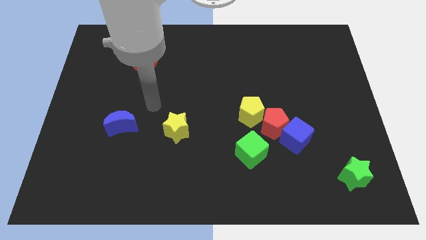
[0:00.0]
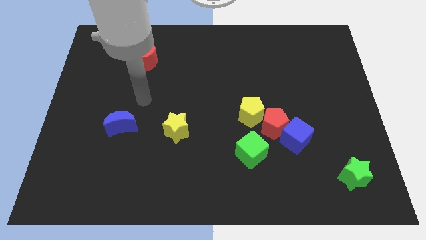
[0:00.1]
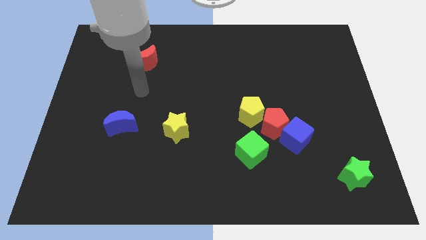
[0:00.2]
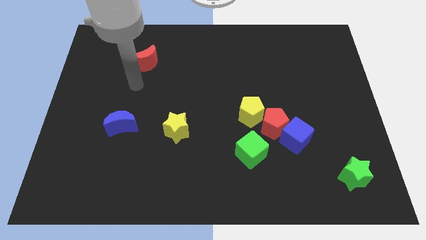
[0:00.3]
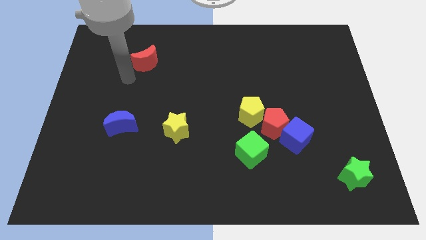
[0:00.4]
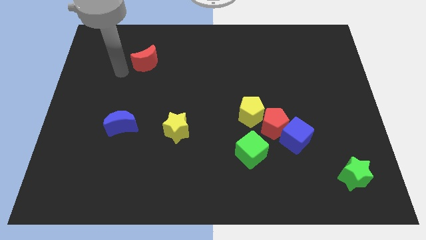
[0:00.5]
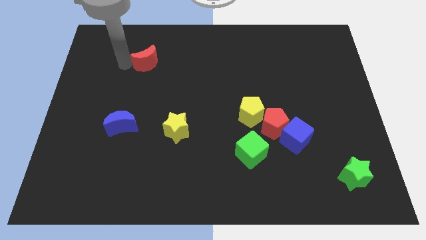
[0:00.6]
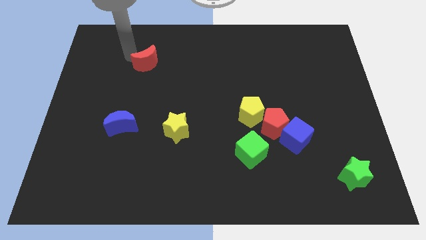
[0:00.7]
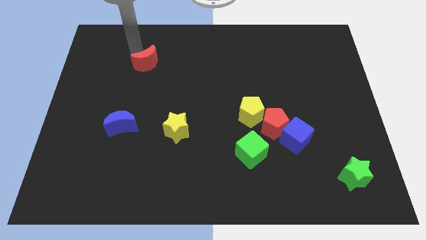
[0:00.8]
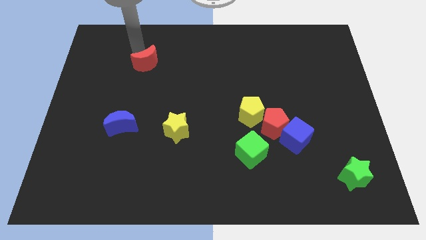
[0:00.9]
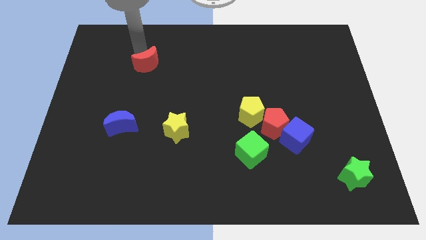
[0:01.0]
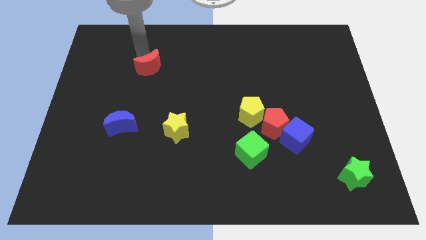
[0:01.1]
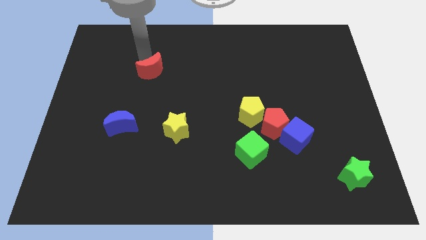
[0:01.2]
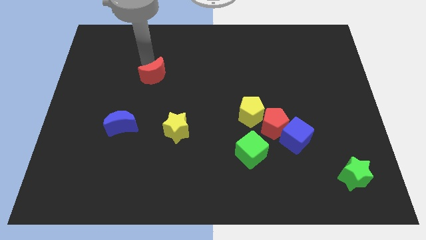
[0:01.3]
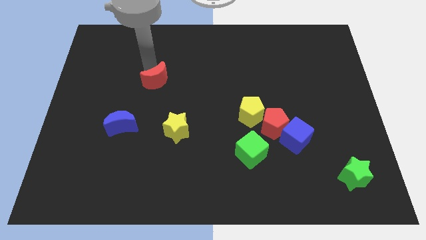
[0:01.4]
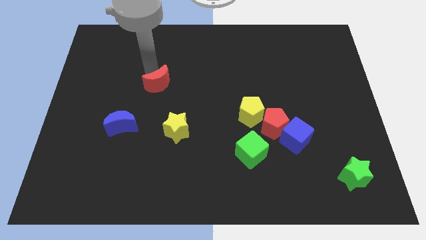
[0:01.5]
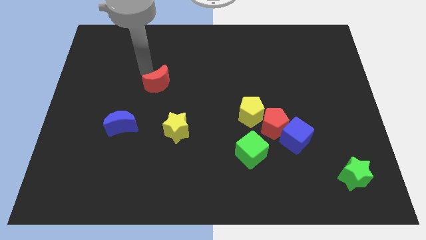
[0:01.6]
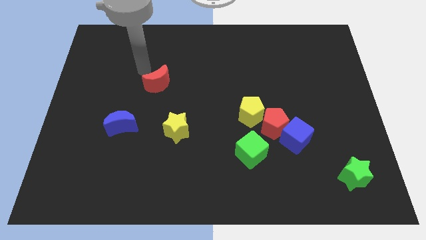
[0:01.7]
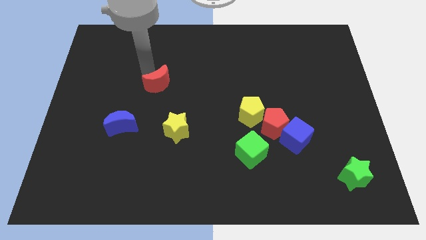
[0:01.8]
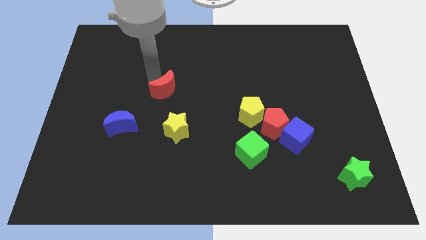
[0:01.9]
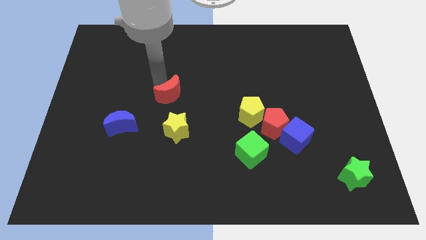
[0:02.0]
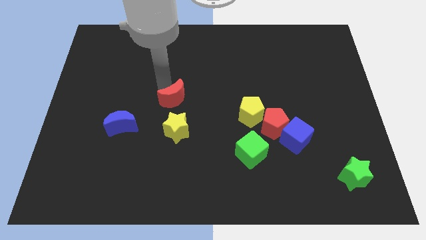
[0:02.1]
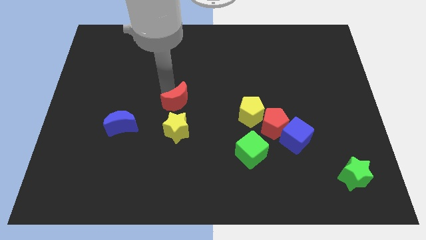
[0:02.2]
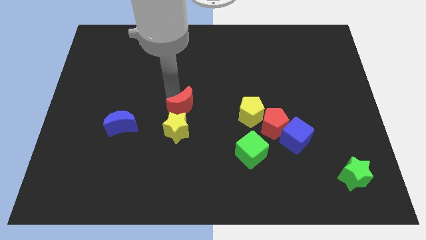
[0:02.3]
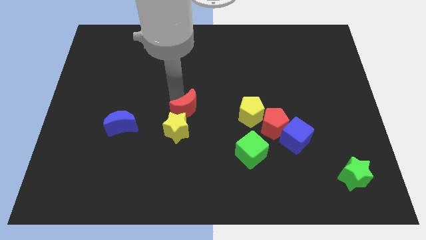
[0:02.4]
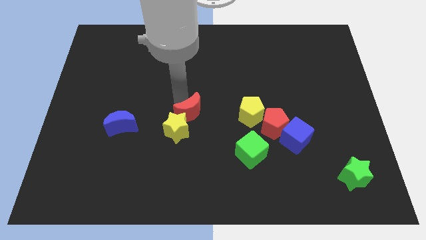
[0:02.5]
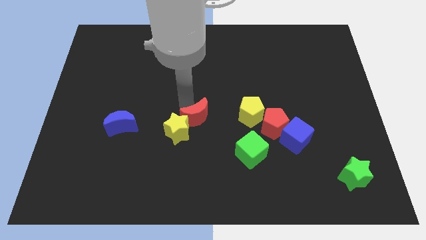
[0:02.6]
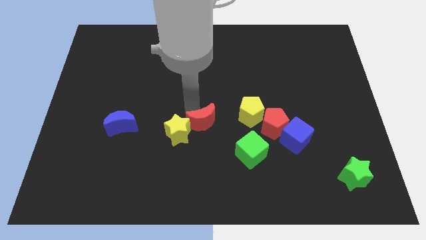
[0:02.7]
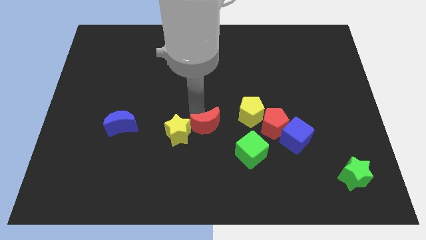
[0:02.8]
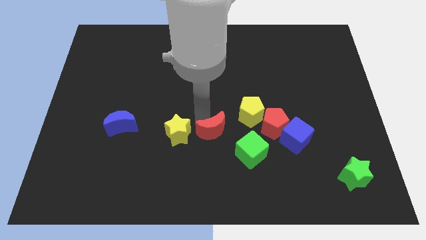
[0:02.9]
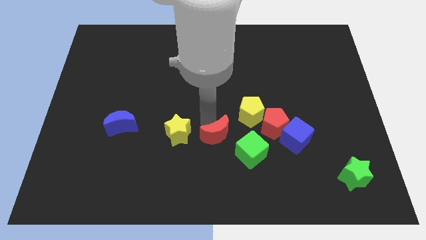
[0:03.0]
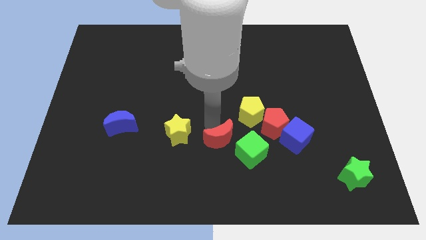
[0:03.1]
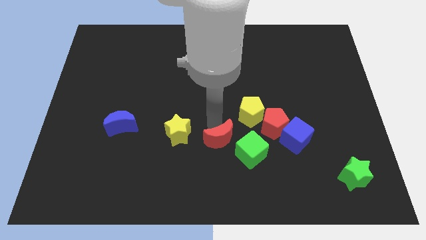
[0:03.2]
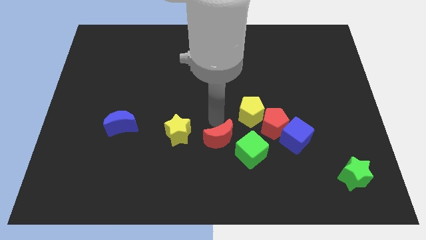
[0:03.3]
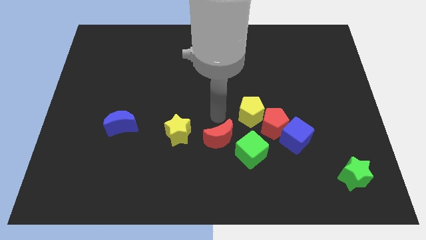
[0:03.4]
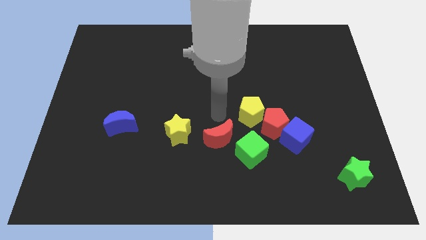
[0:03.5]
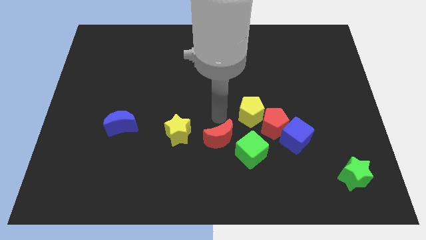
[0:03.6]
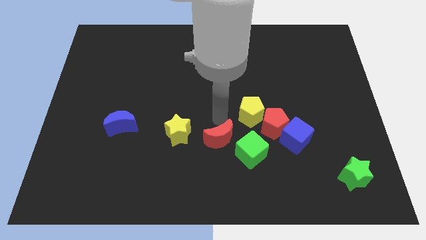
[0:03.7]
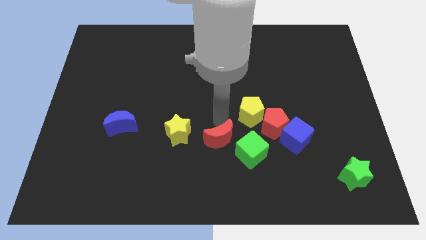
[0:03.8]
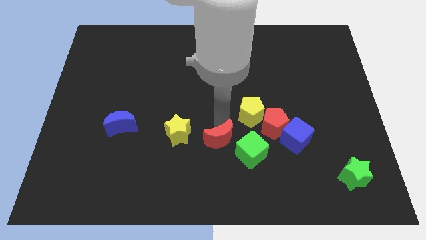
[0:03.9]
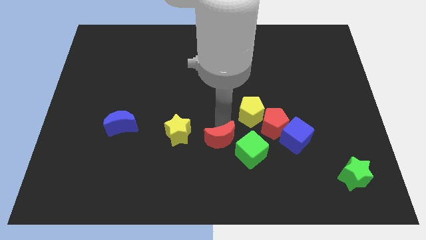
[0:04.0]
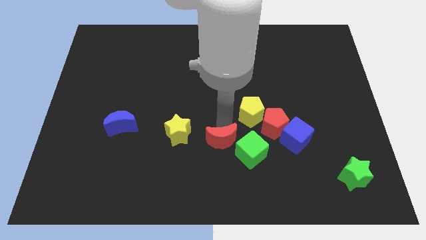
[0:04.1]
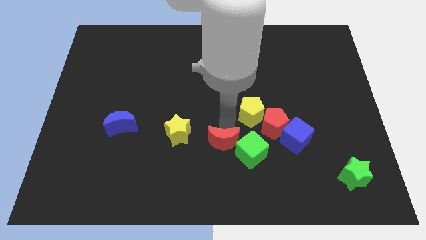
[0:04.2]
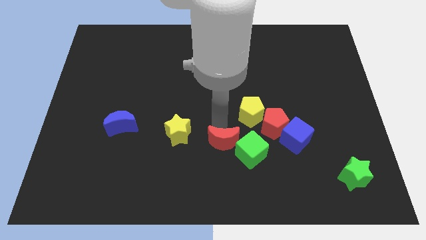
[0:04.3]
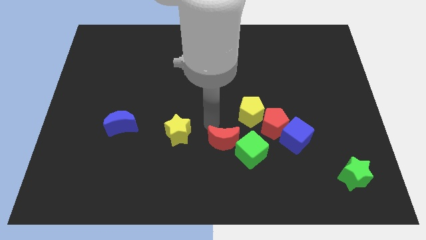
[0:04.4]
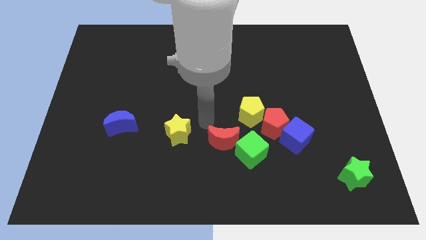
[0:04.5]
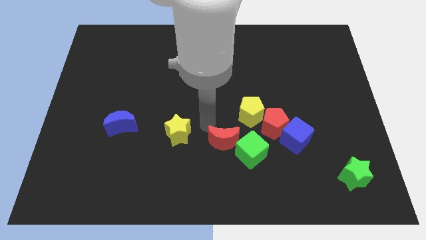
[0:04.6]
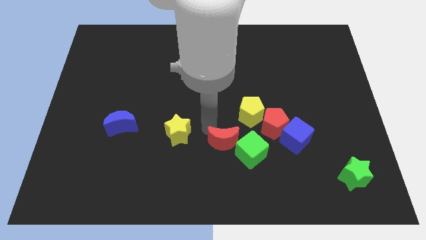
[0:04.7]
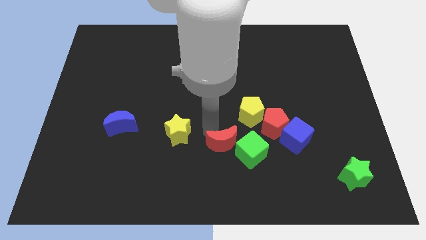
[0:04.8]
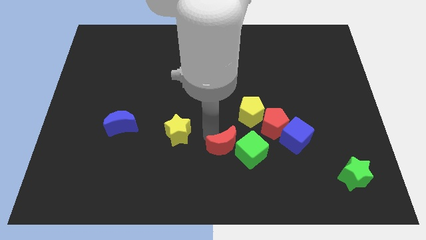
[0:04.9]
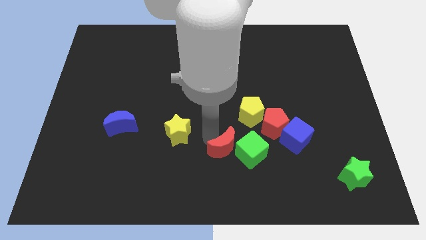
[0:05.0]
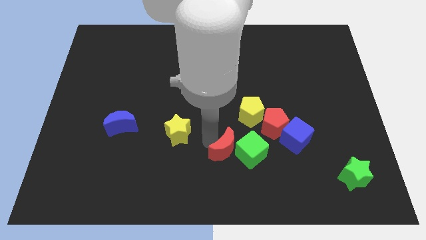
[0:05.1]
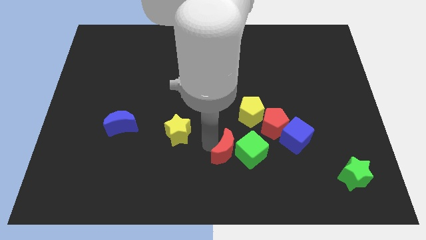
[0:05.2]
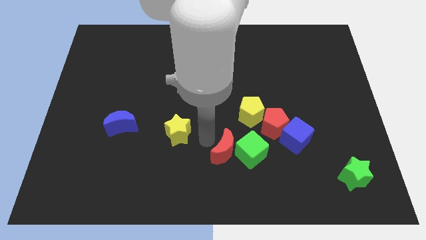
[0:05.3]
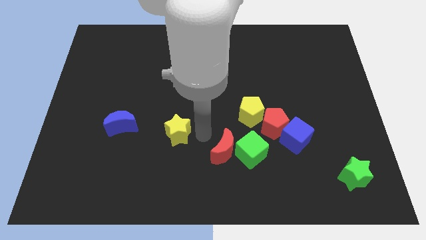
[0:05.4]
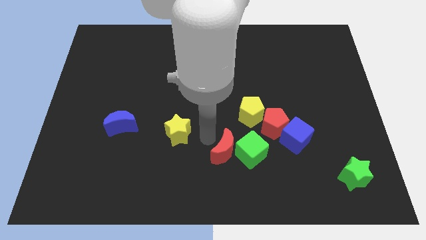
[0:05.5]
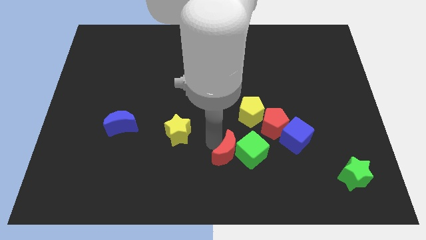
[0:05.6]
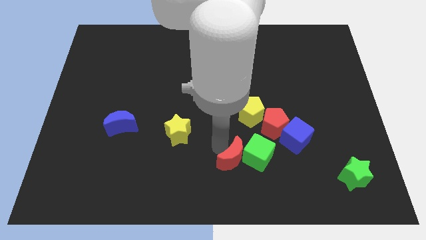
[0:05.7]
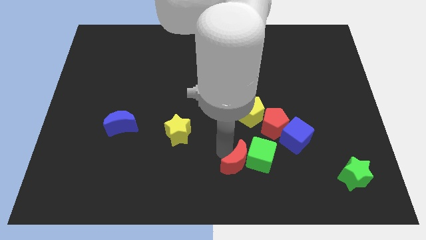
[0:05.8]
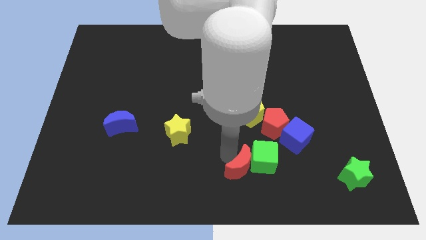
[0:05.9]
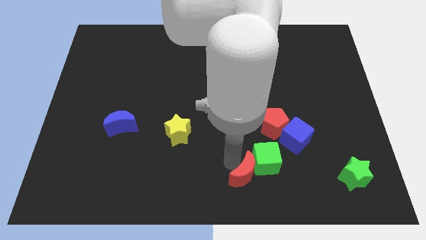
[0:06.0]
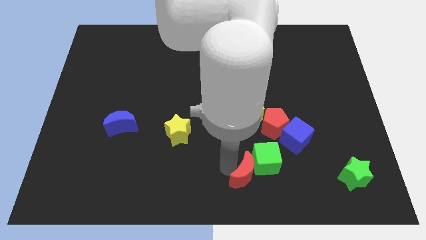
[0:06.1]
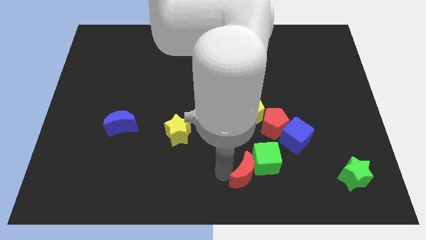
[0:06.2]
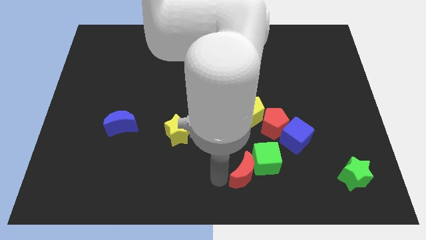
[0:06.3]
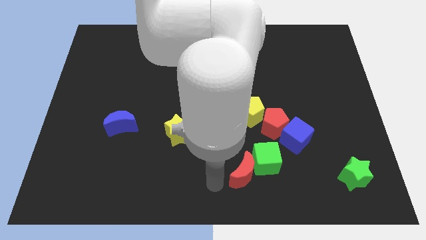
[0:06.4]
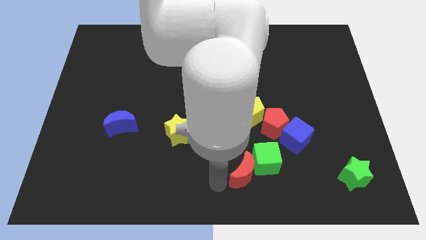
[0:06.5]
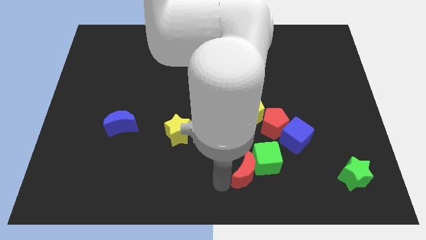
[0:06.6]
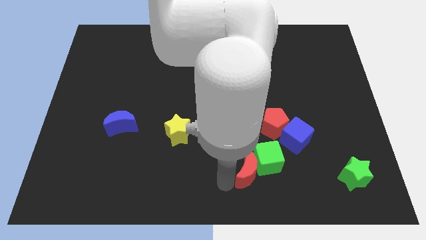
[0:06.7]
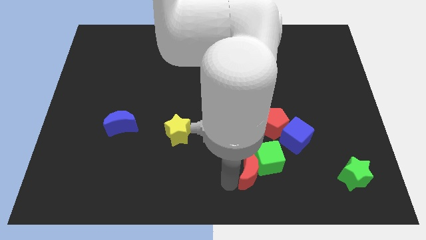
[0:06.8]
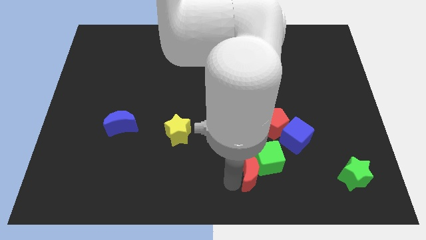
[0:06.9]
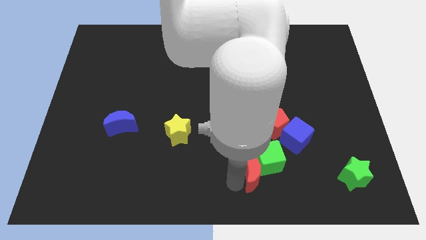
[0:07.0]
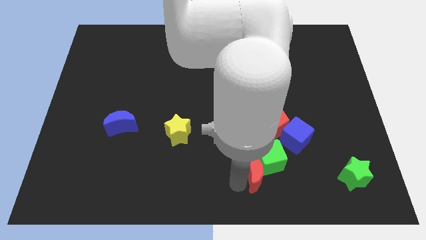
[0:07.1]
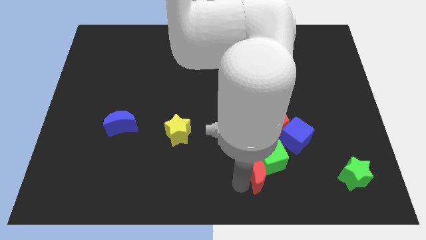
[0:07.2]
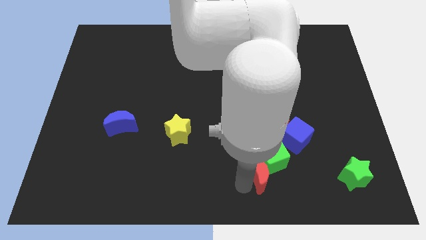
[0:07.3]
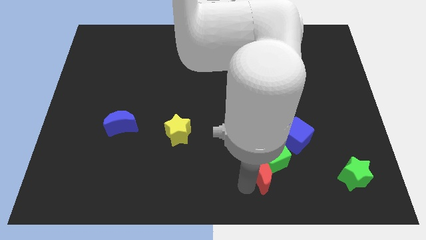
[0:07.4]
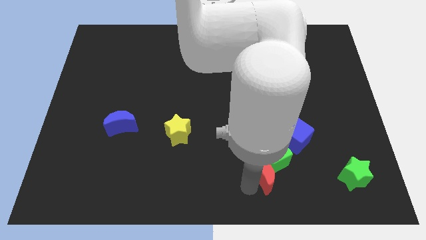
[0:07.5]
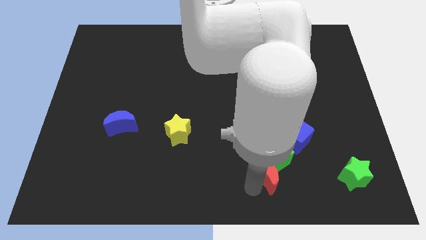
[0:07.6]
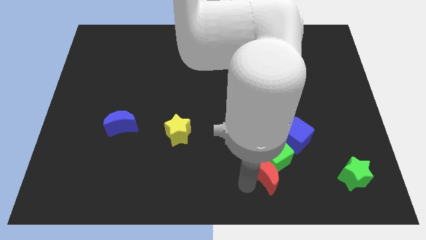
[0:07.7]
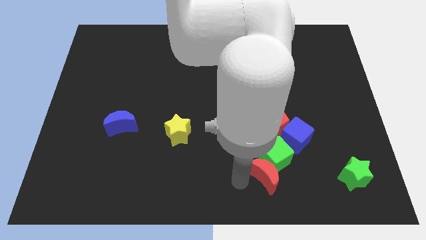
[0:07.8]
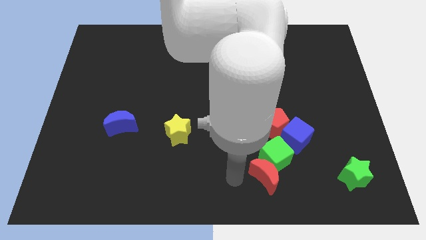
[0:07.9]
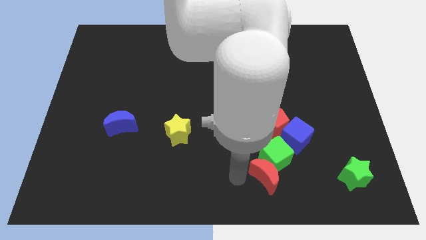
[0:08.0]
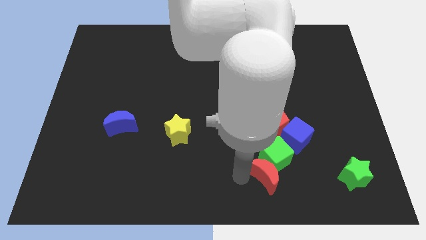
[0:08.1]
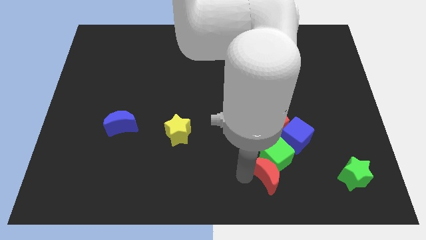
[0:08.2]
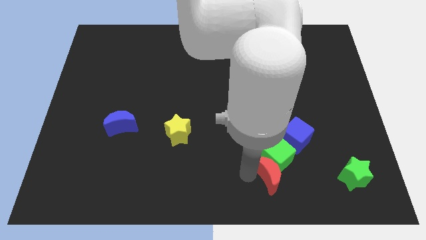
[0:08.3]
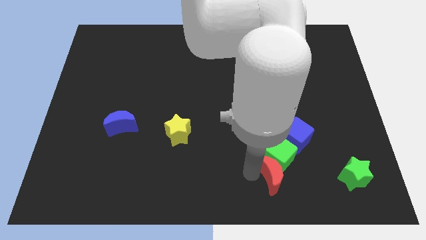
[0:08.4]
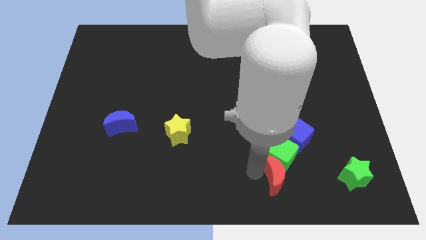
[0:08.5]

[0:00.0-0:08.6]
push the red moon just left of the green star
